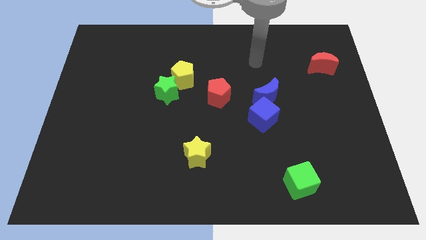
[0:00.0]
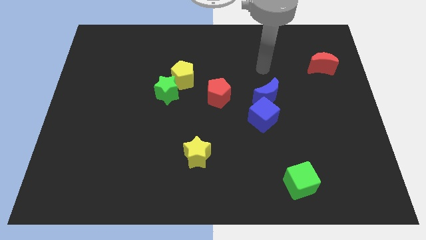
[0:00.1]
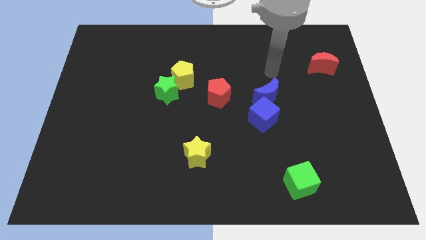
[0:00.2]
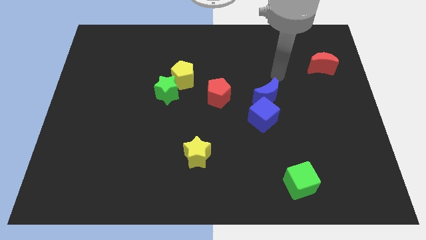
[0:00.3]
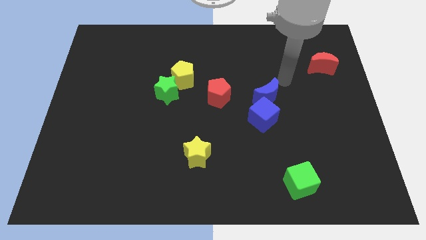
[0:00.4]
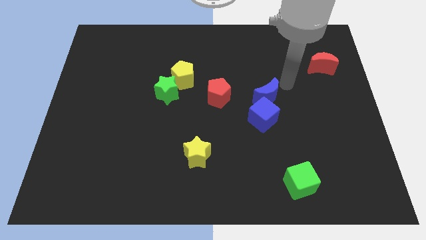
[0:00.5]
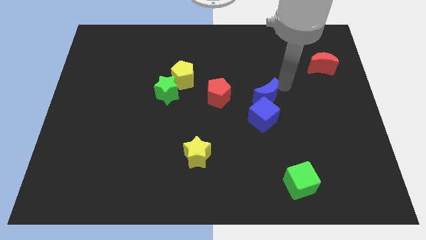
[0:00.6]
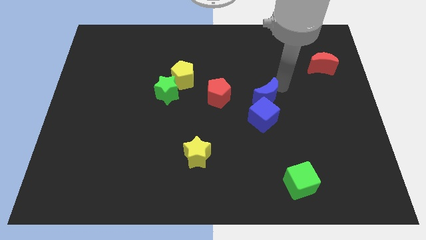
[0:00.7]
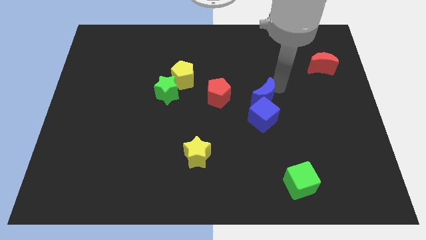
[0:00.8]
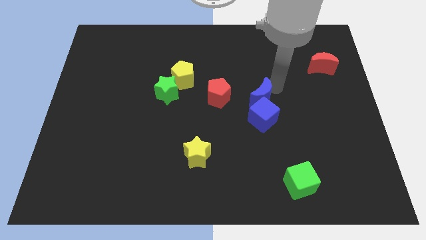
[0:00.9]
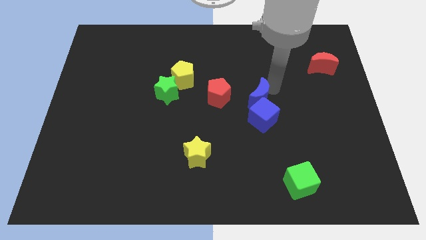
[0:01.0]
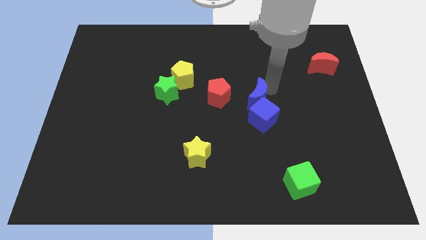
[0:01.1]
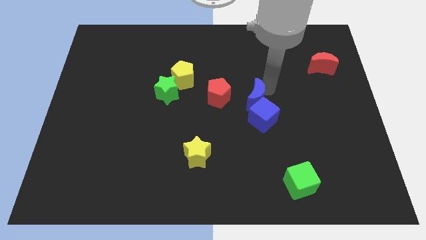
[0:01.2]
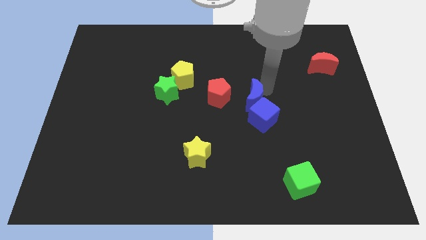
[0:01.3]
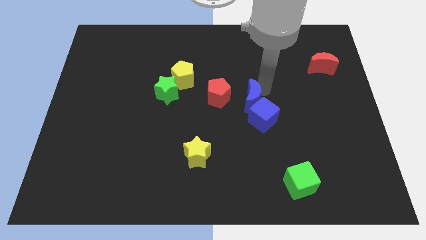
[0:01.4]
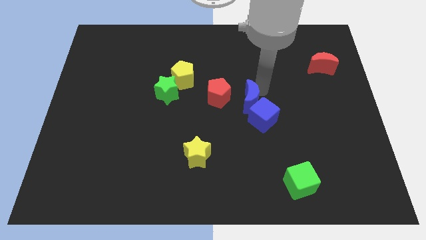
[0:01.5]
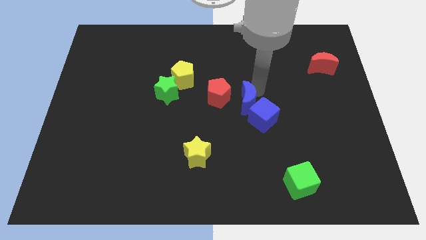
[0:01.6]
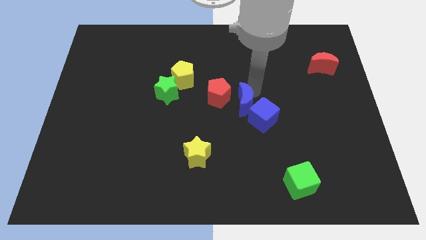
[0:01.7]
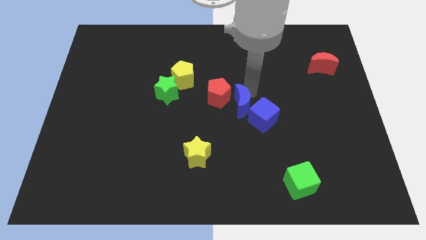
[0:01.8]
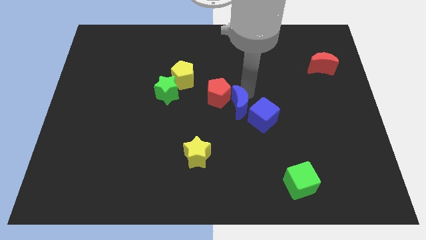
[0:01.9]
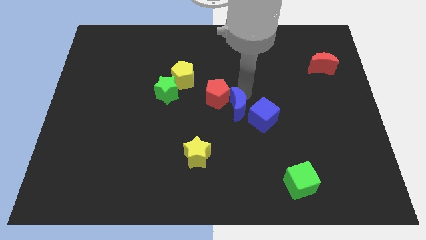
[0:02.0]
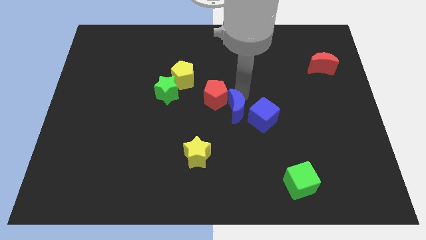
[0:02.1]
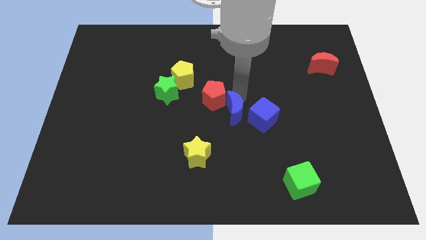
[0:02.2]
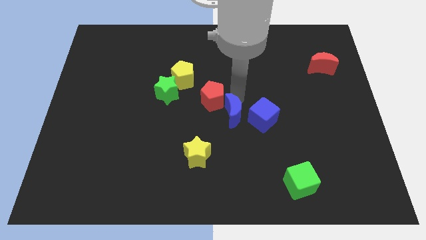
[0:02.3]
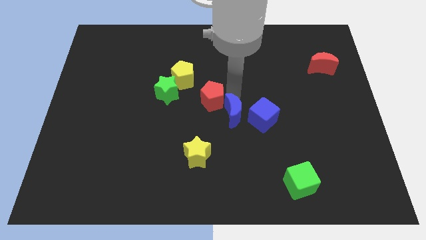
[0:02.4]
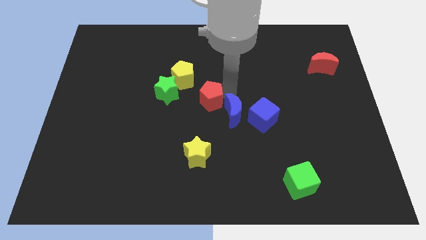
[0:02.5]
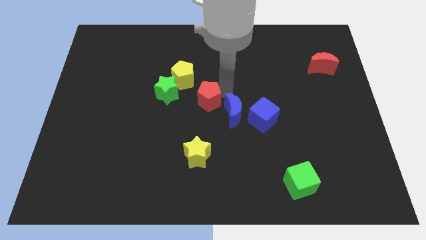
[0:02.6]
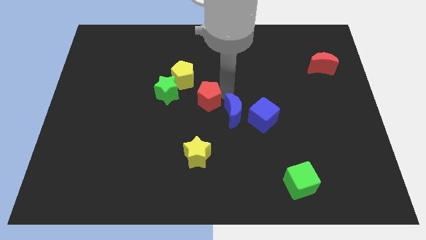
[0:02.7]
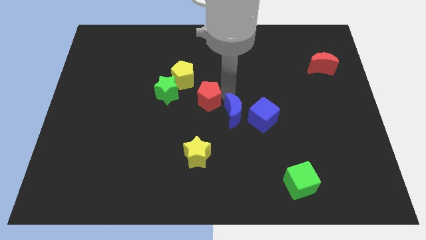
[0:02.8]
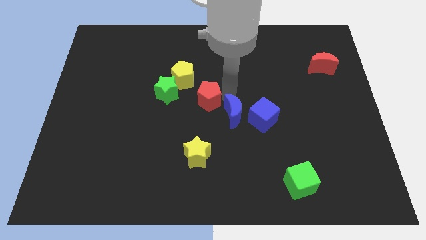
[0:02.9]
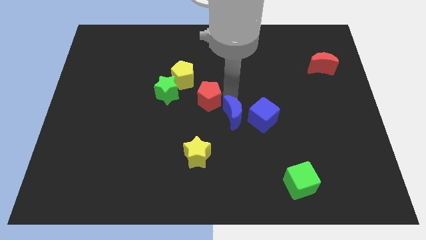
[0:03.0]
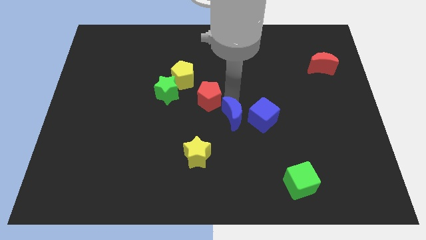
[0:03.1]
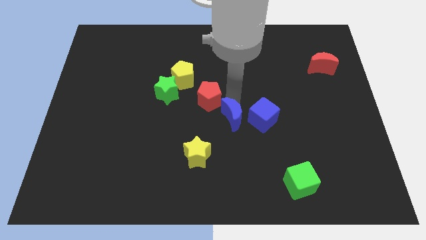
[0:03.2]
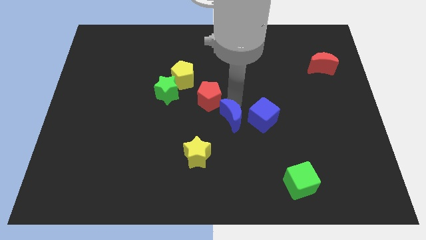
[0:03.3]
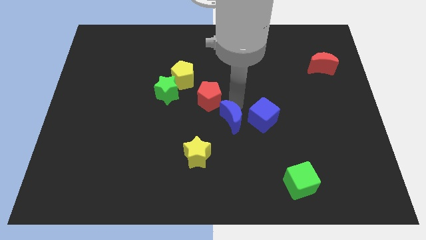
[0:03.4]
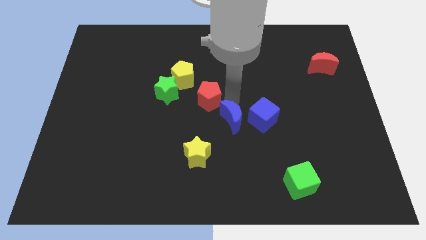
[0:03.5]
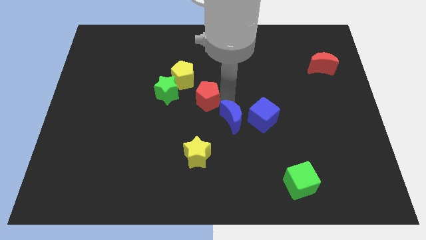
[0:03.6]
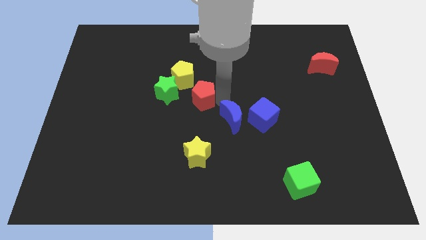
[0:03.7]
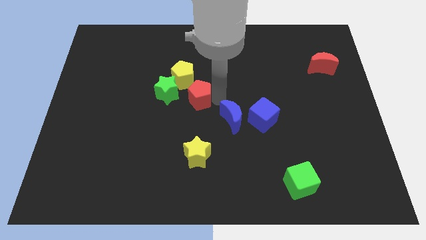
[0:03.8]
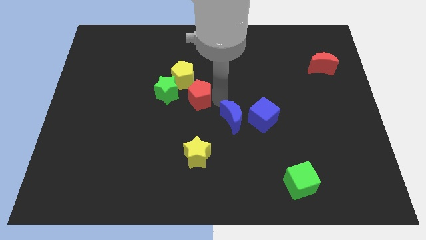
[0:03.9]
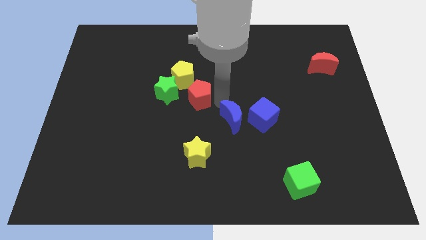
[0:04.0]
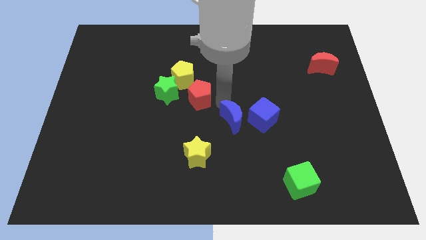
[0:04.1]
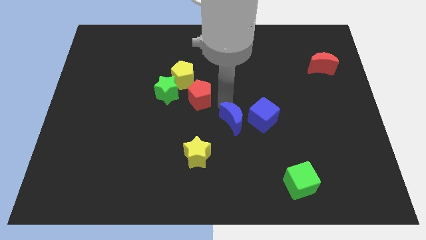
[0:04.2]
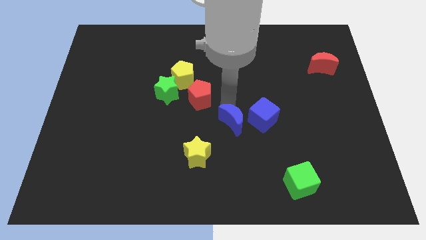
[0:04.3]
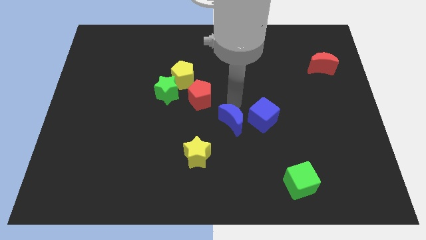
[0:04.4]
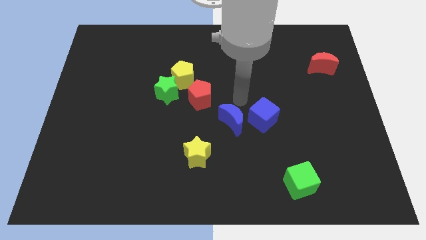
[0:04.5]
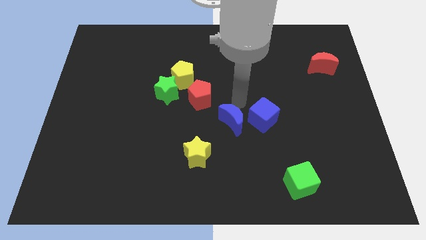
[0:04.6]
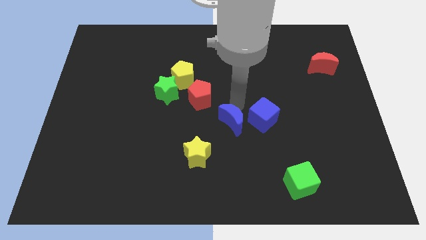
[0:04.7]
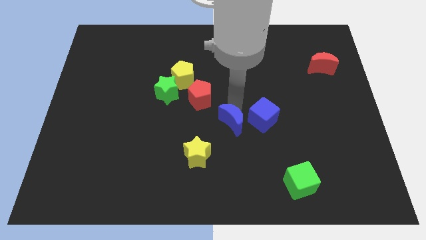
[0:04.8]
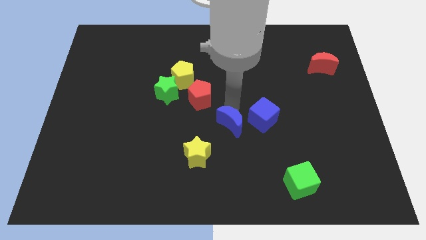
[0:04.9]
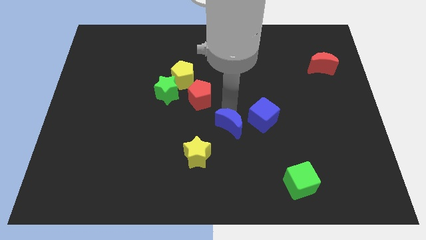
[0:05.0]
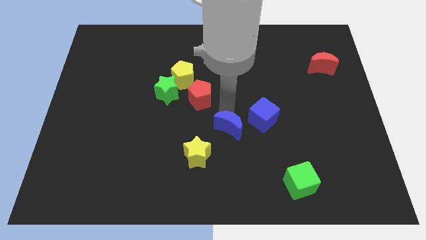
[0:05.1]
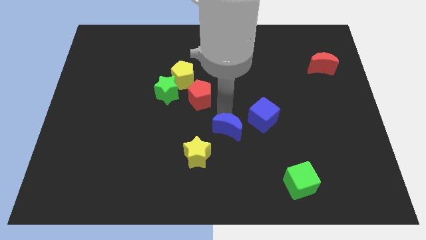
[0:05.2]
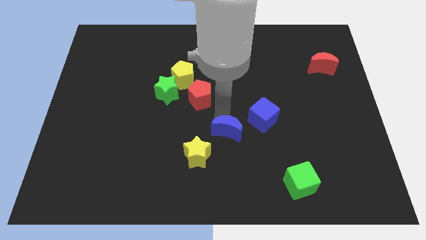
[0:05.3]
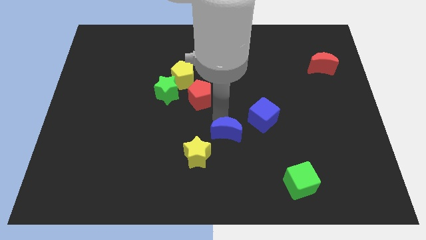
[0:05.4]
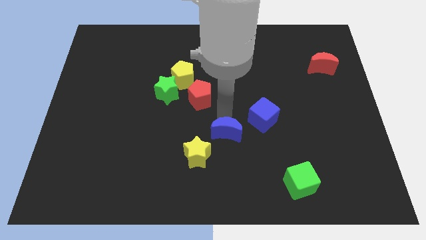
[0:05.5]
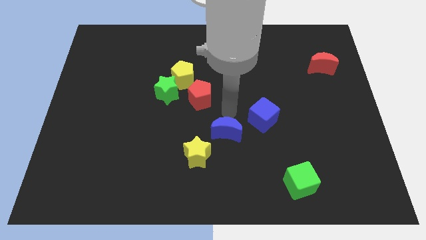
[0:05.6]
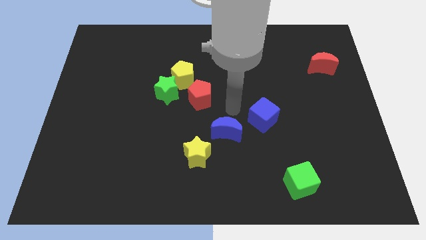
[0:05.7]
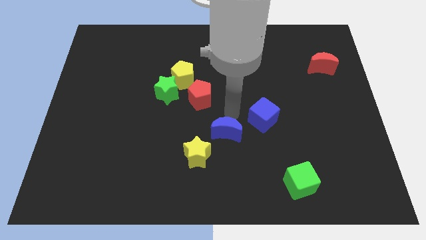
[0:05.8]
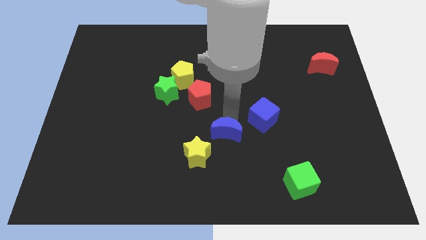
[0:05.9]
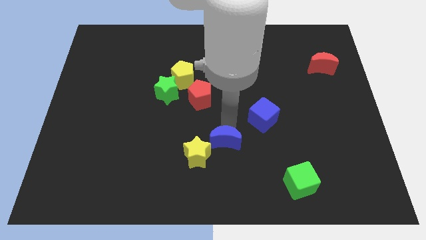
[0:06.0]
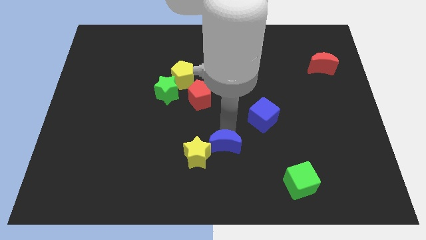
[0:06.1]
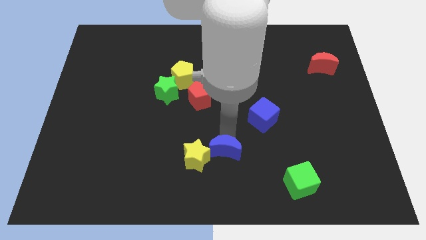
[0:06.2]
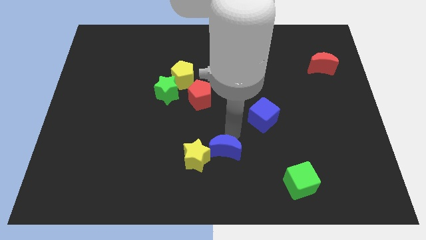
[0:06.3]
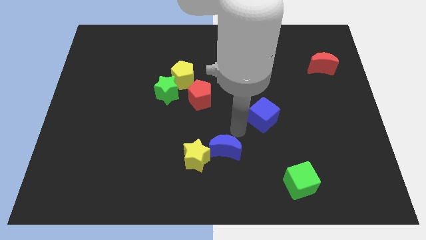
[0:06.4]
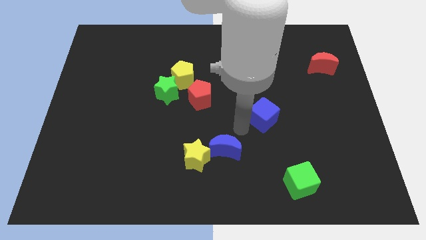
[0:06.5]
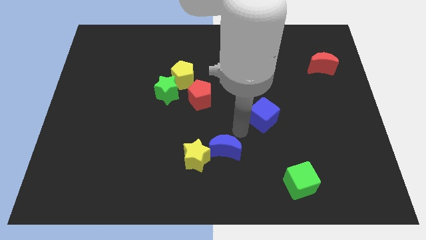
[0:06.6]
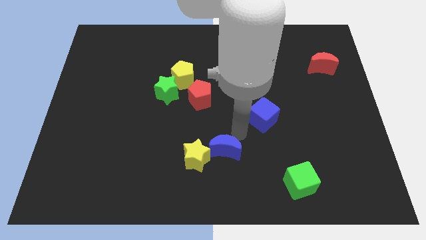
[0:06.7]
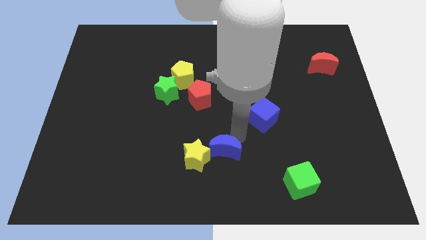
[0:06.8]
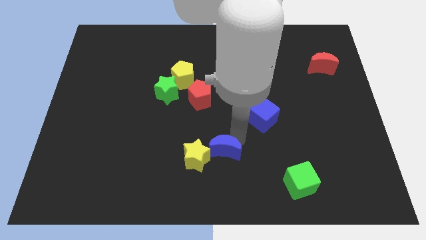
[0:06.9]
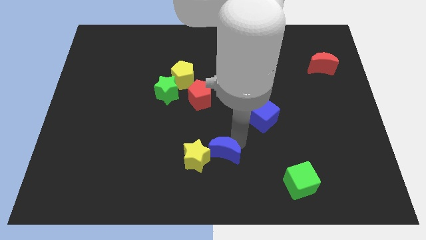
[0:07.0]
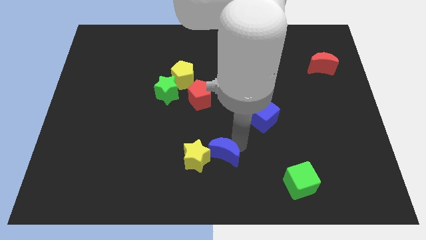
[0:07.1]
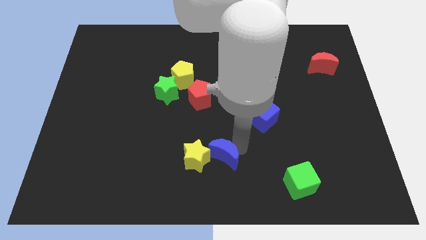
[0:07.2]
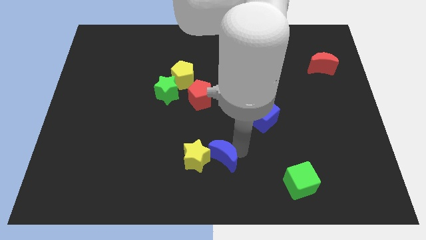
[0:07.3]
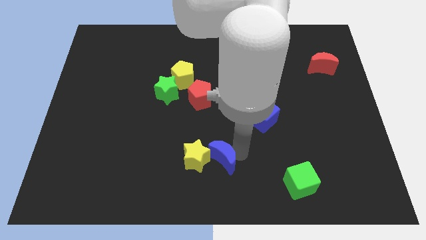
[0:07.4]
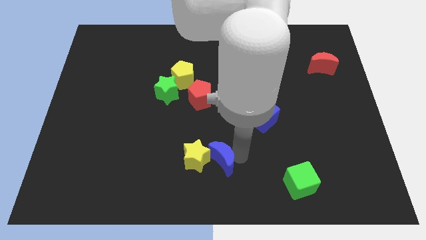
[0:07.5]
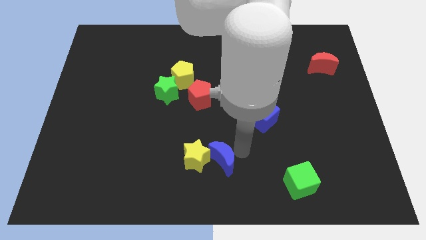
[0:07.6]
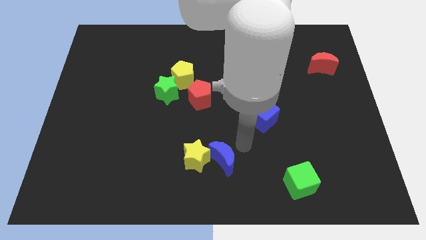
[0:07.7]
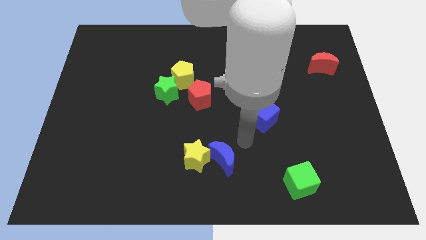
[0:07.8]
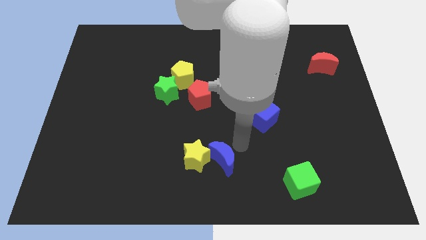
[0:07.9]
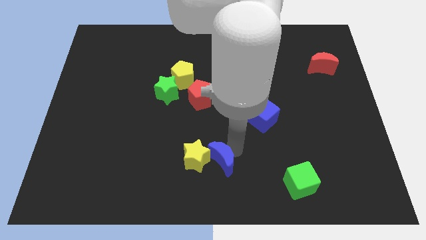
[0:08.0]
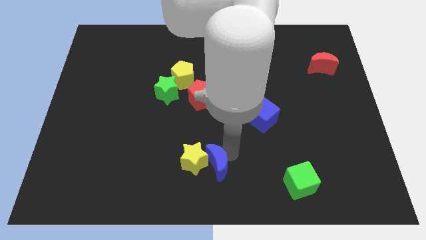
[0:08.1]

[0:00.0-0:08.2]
move the blue moon downwards and left diagonally
